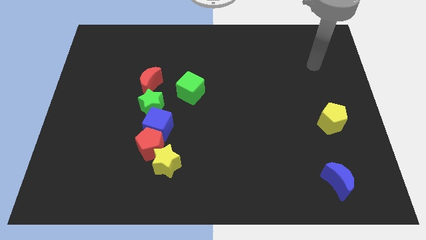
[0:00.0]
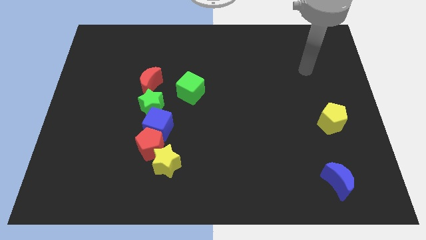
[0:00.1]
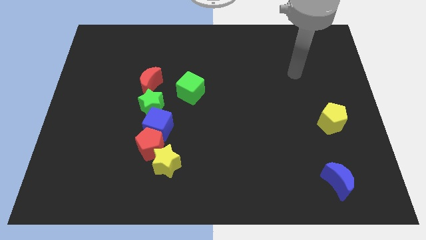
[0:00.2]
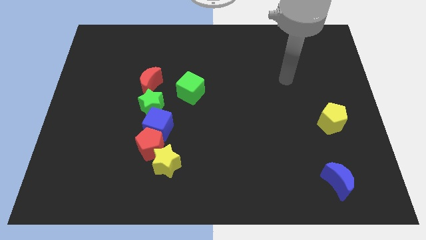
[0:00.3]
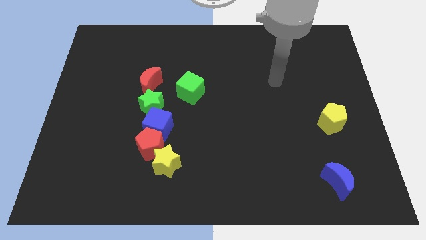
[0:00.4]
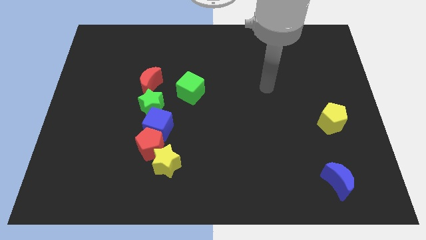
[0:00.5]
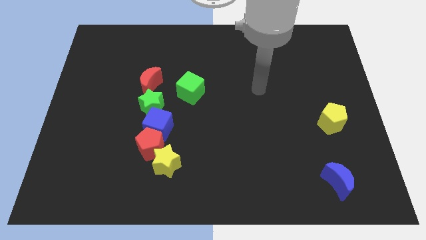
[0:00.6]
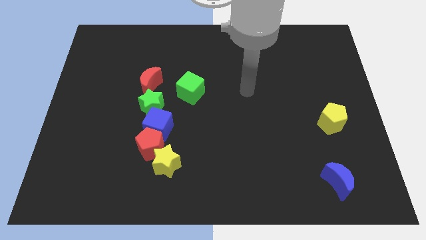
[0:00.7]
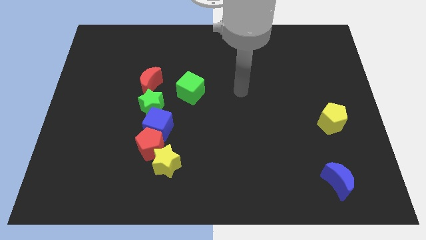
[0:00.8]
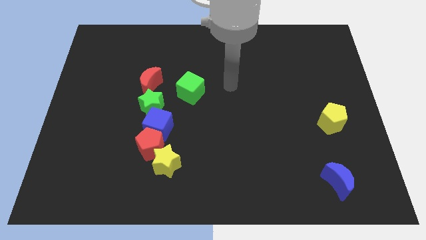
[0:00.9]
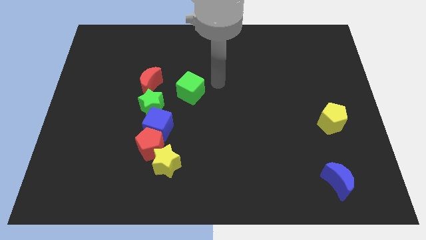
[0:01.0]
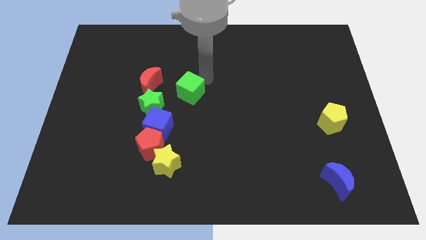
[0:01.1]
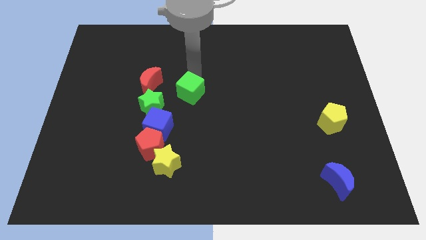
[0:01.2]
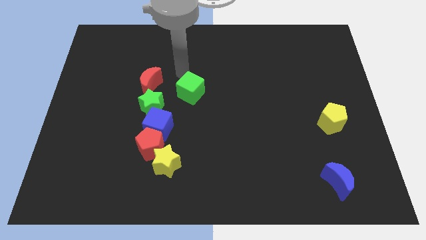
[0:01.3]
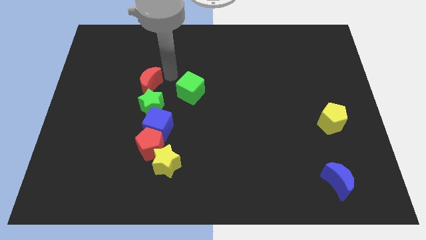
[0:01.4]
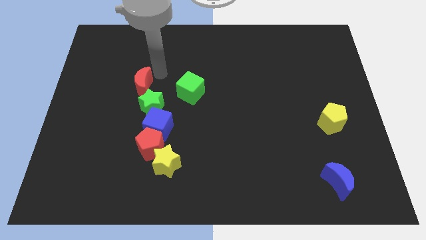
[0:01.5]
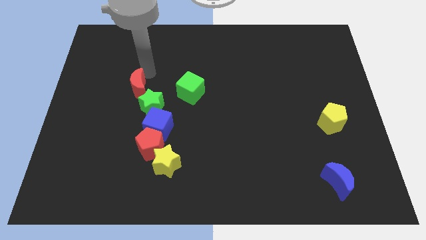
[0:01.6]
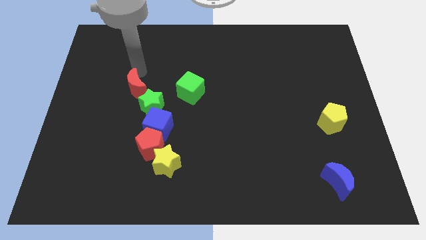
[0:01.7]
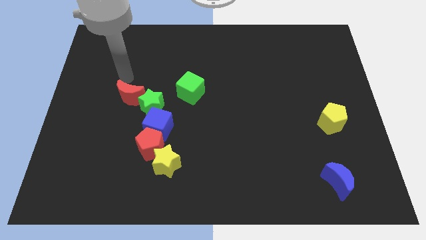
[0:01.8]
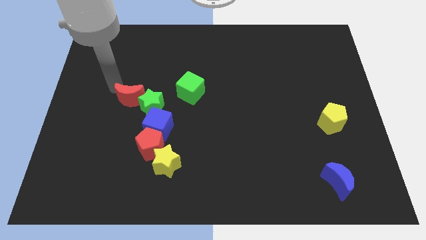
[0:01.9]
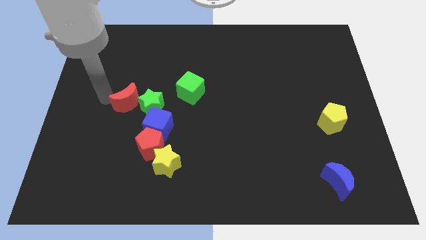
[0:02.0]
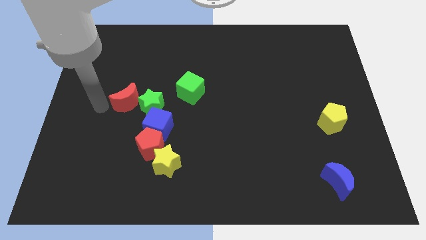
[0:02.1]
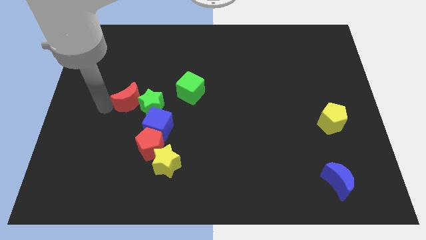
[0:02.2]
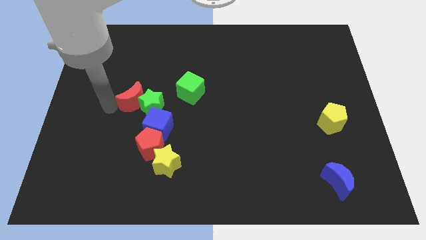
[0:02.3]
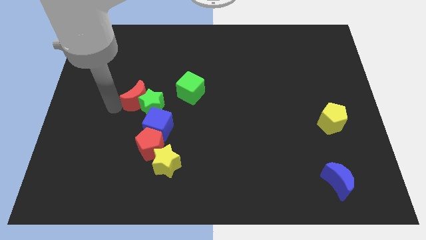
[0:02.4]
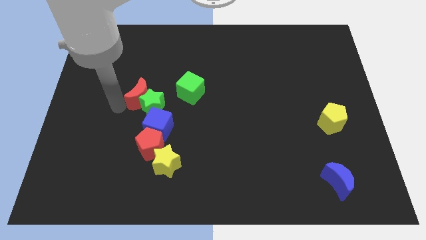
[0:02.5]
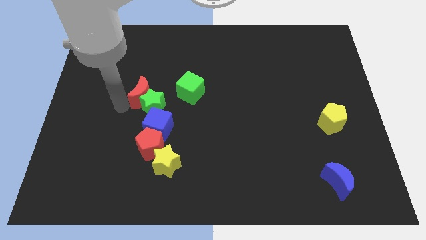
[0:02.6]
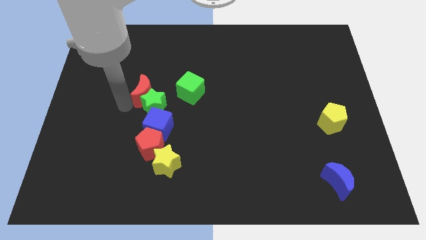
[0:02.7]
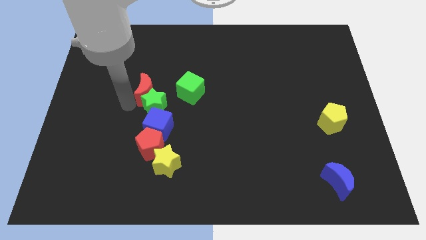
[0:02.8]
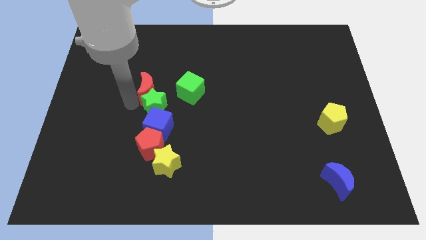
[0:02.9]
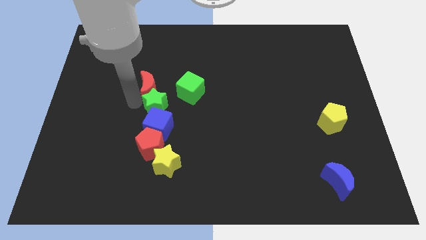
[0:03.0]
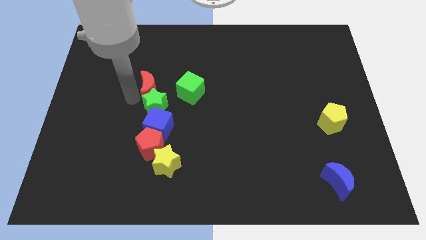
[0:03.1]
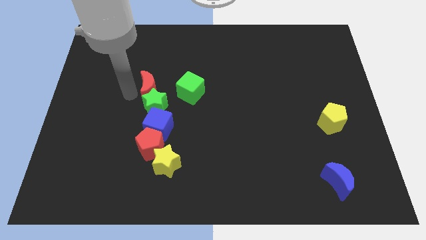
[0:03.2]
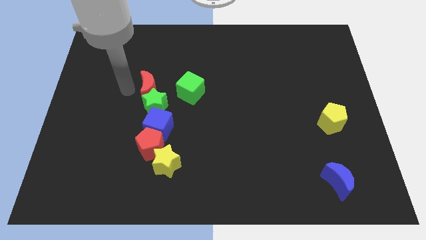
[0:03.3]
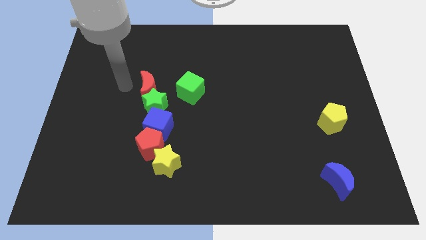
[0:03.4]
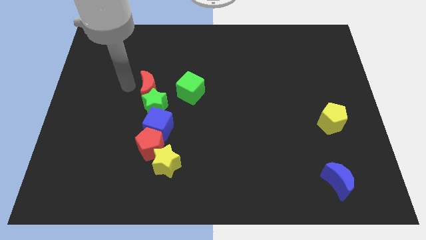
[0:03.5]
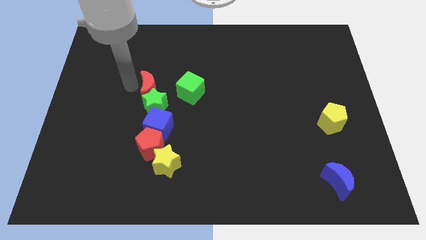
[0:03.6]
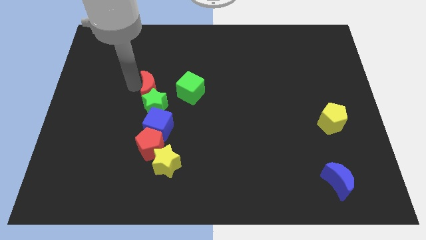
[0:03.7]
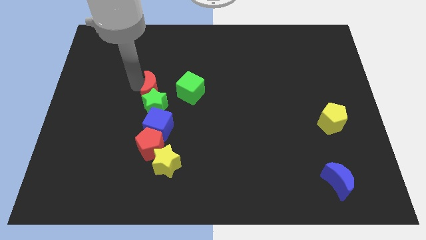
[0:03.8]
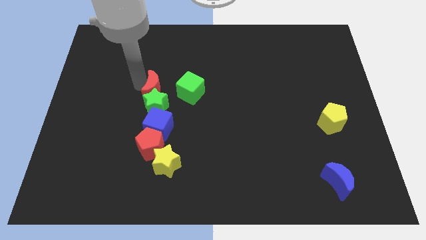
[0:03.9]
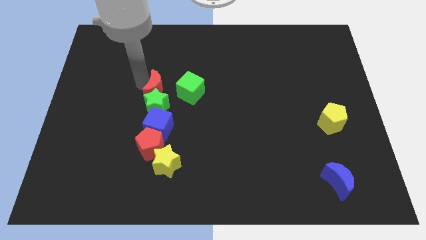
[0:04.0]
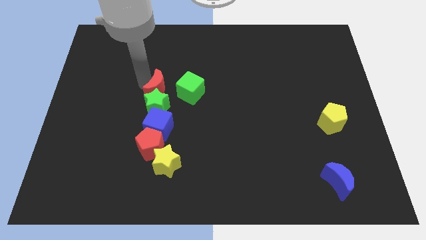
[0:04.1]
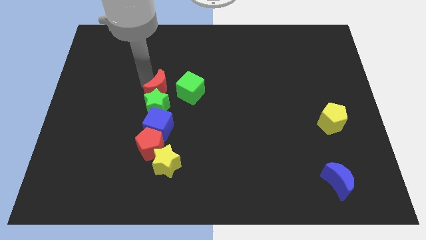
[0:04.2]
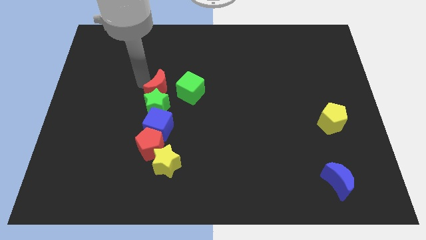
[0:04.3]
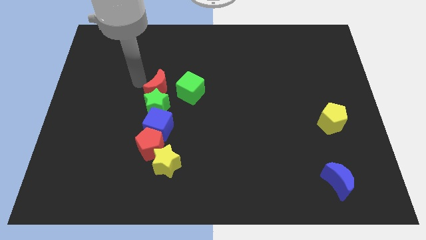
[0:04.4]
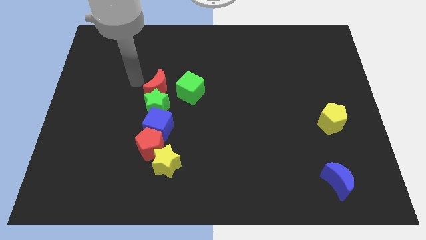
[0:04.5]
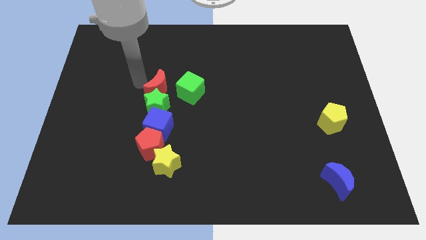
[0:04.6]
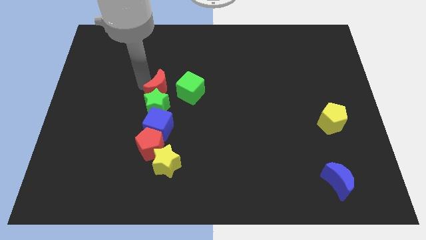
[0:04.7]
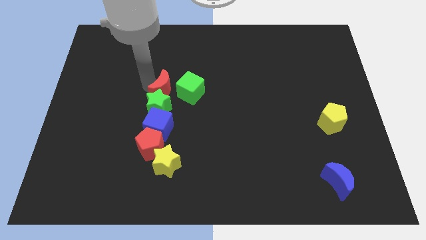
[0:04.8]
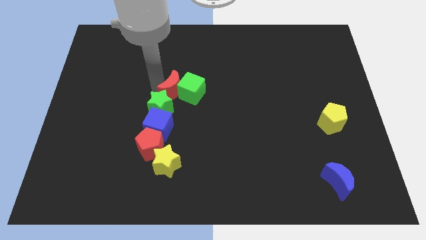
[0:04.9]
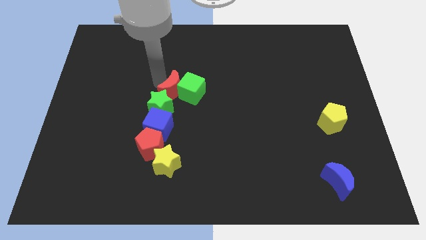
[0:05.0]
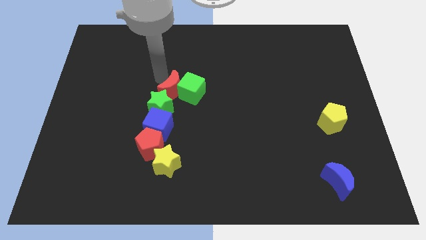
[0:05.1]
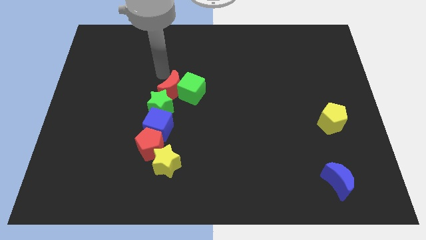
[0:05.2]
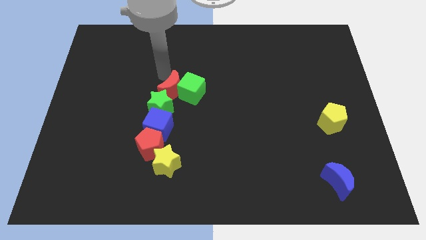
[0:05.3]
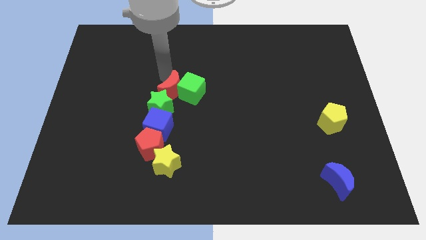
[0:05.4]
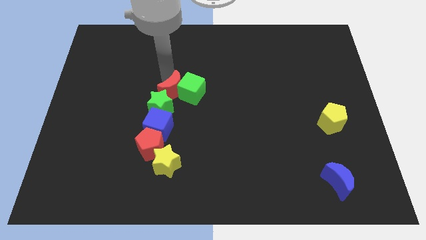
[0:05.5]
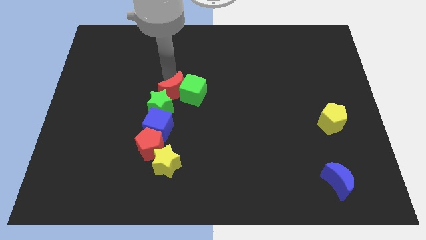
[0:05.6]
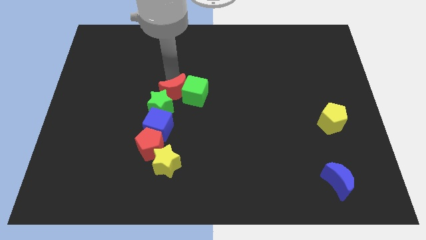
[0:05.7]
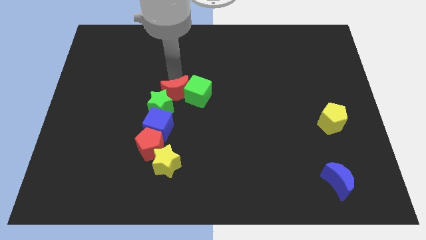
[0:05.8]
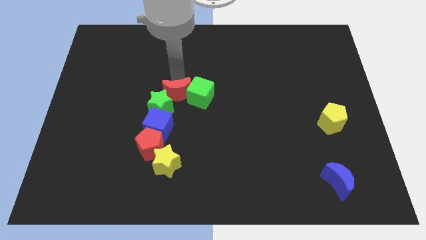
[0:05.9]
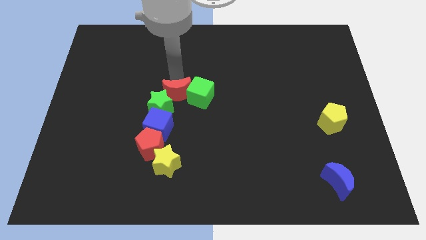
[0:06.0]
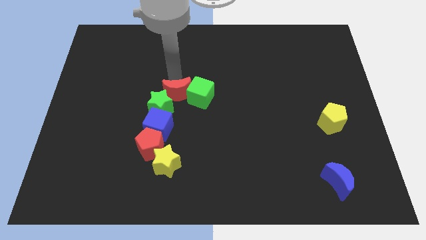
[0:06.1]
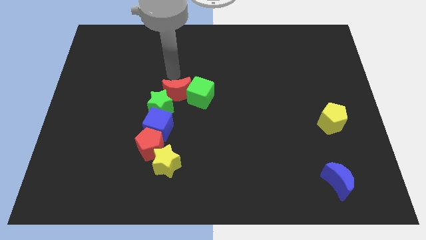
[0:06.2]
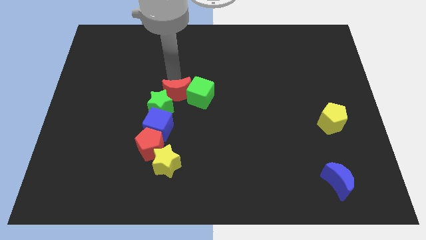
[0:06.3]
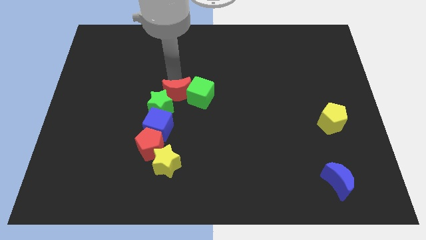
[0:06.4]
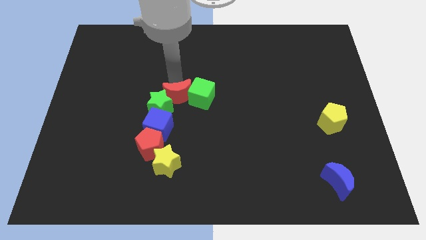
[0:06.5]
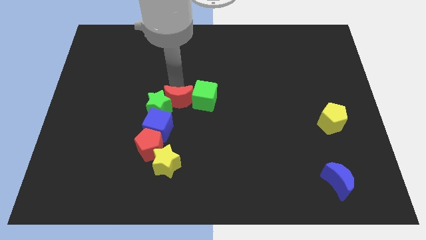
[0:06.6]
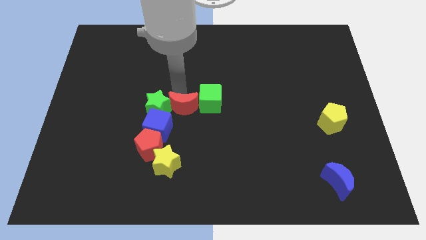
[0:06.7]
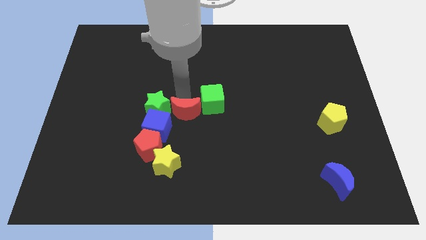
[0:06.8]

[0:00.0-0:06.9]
slide the red moon to the top right of the red pentagon

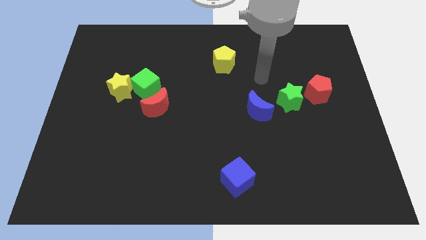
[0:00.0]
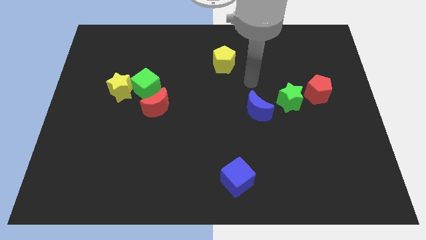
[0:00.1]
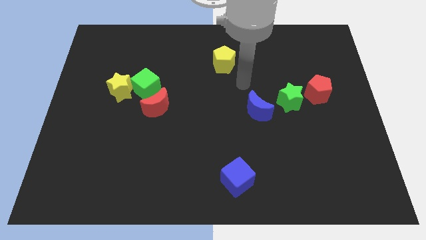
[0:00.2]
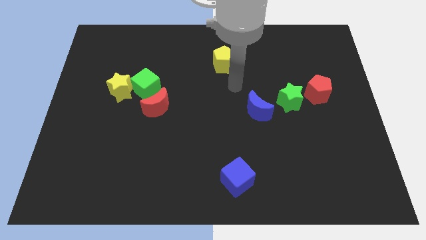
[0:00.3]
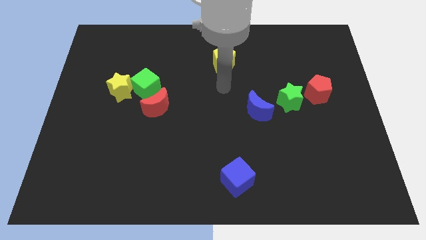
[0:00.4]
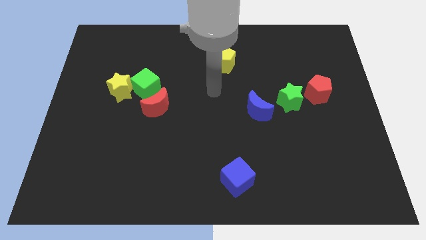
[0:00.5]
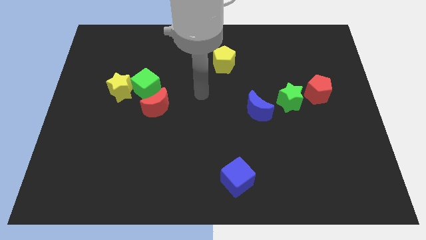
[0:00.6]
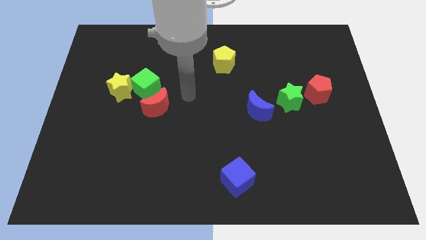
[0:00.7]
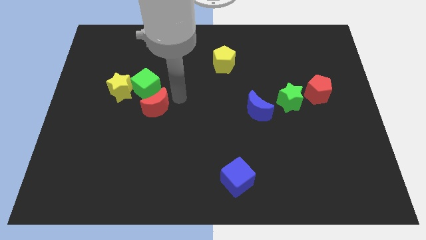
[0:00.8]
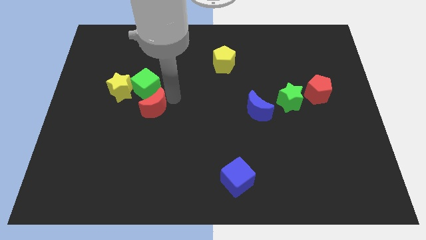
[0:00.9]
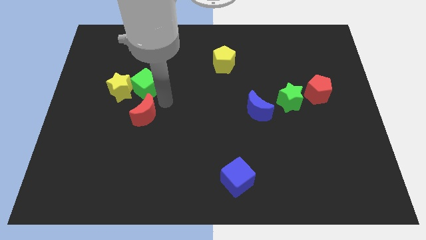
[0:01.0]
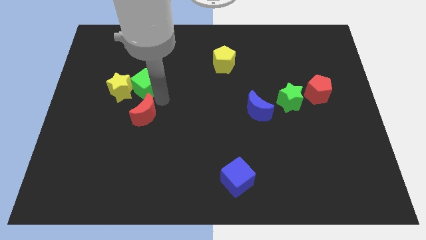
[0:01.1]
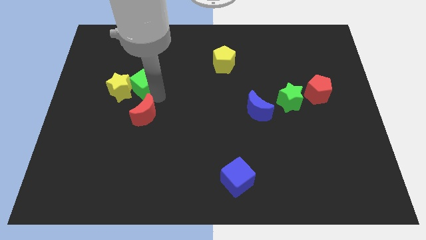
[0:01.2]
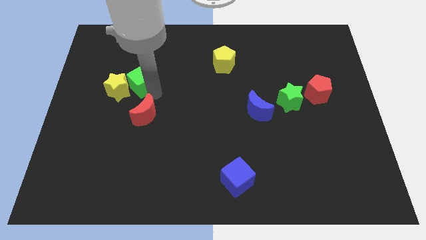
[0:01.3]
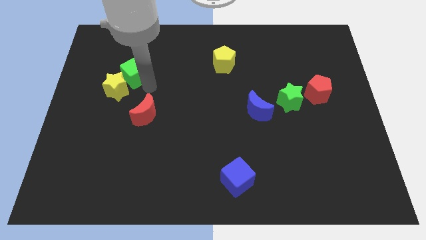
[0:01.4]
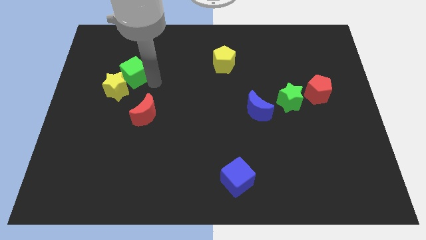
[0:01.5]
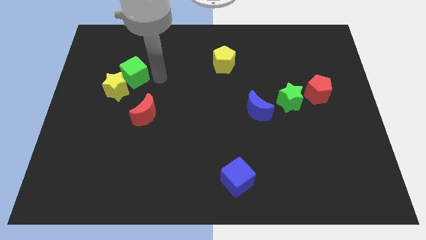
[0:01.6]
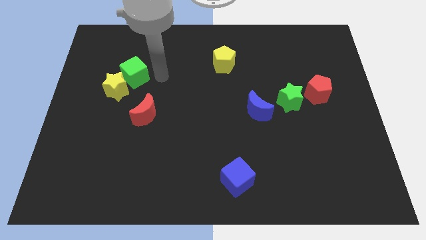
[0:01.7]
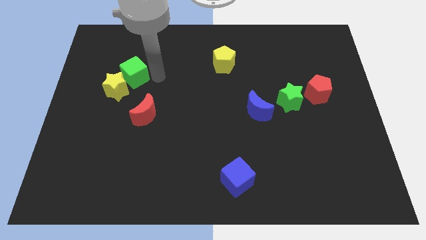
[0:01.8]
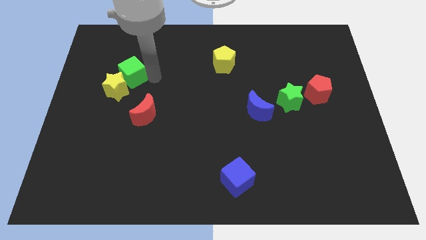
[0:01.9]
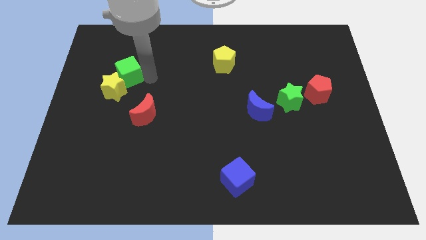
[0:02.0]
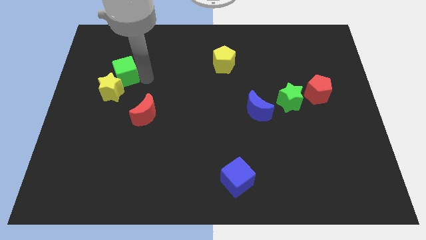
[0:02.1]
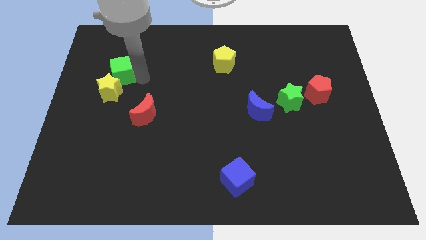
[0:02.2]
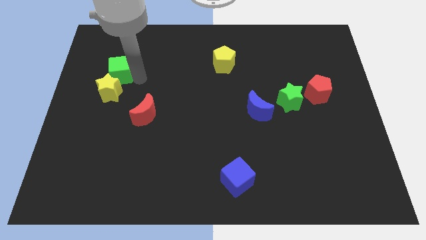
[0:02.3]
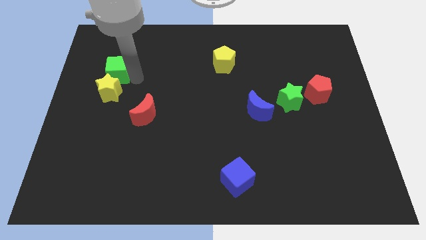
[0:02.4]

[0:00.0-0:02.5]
put the green cube to the top left of the yellow star
